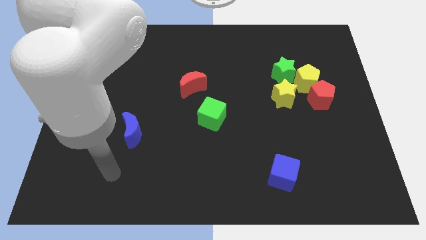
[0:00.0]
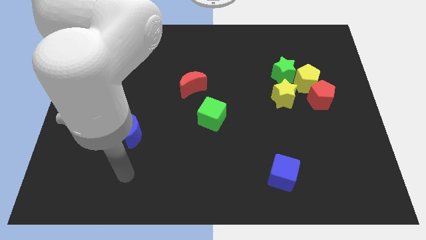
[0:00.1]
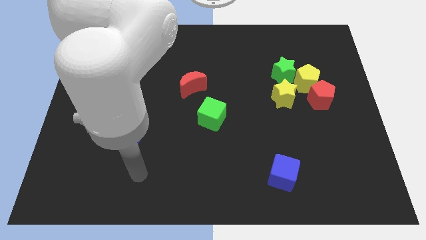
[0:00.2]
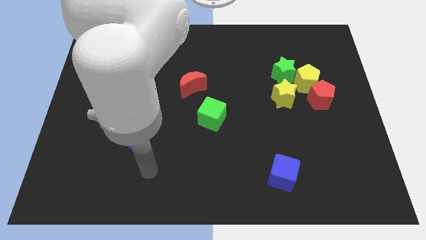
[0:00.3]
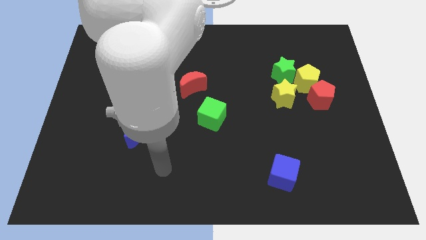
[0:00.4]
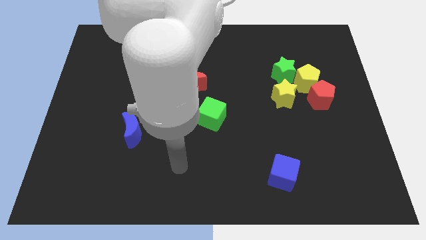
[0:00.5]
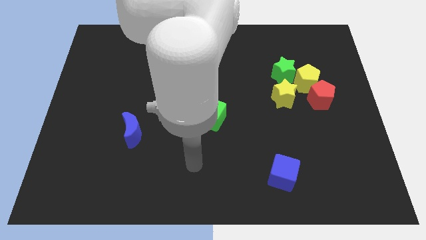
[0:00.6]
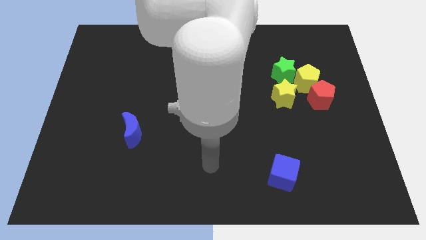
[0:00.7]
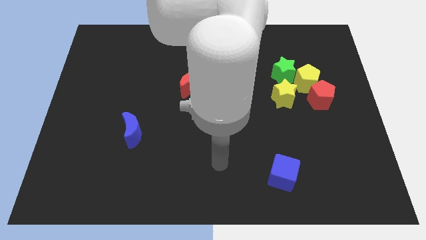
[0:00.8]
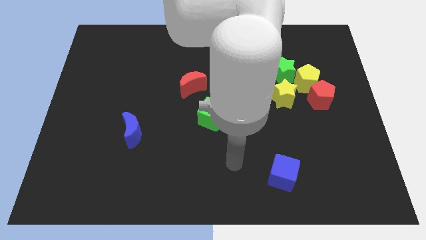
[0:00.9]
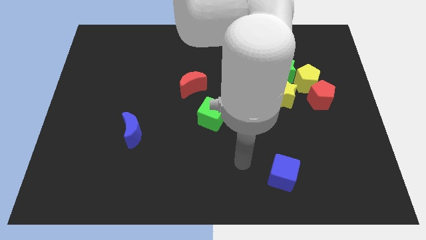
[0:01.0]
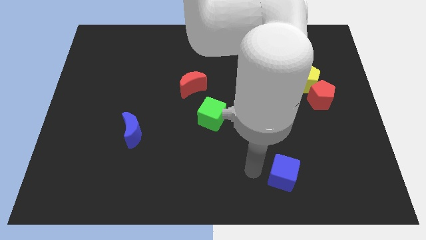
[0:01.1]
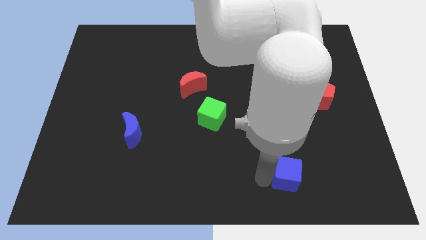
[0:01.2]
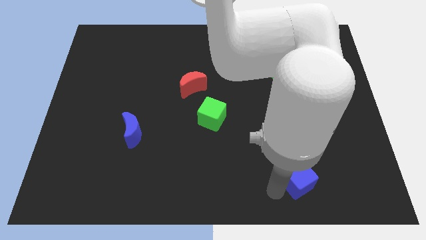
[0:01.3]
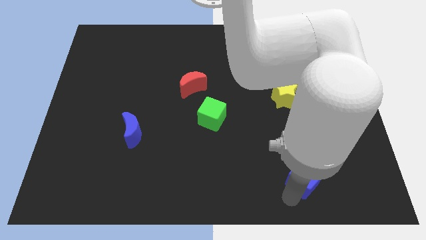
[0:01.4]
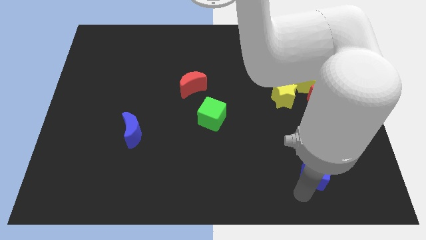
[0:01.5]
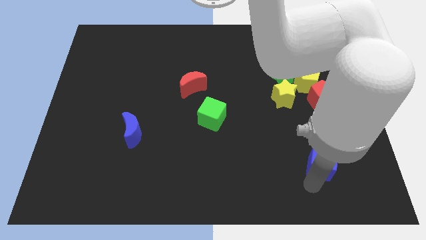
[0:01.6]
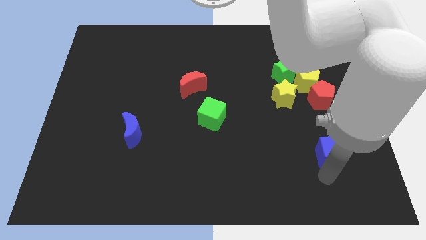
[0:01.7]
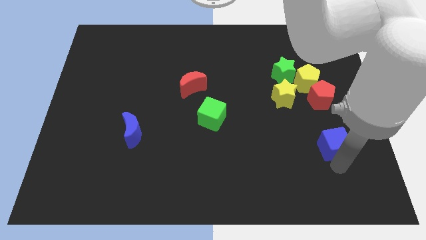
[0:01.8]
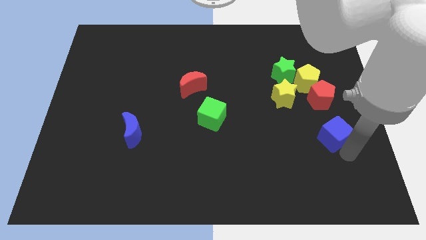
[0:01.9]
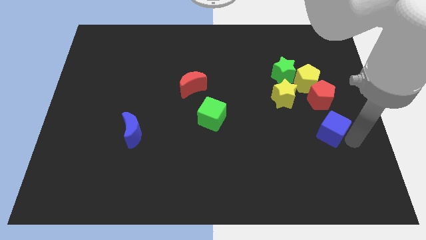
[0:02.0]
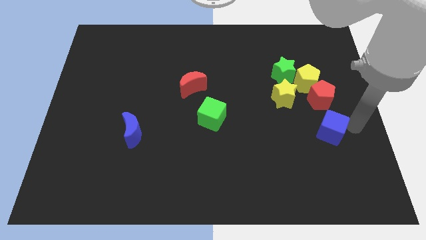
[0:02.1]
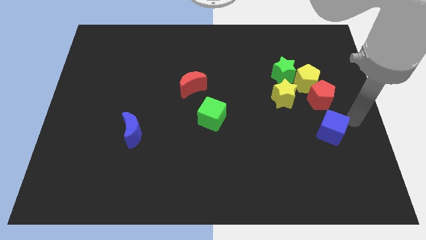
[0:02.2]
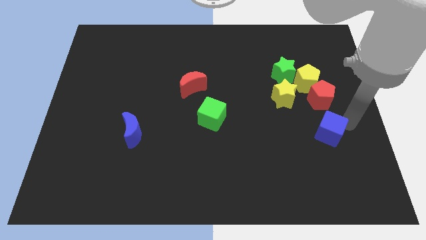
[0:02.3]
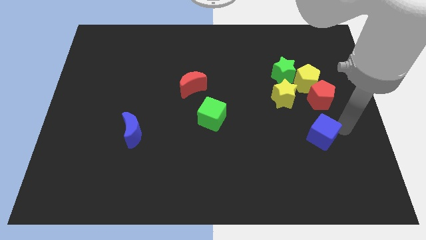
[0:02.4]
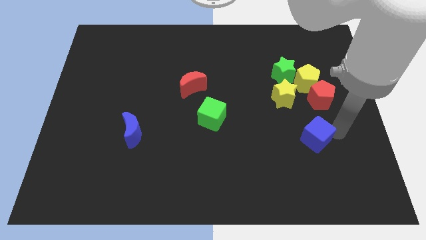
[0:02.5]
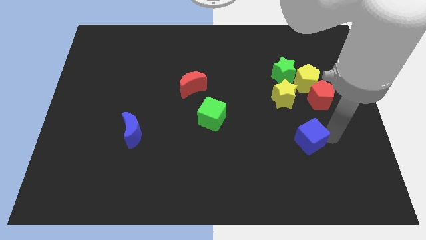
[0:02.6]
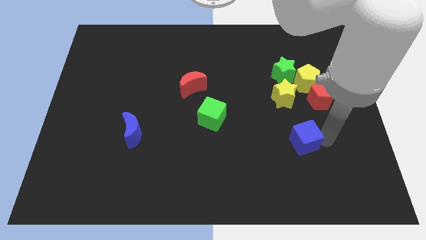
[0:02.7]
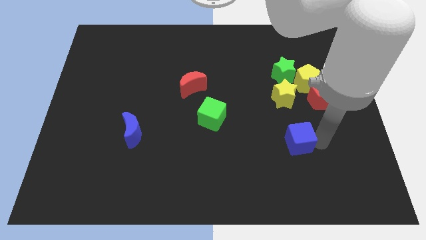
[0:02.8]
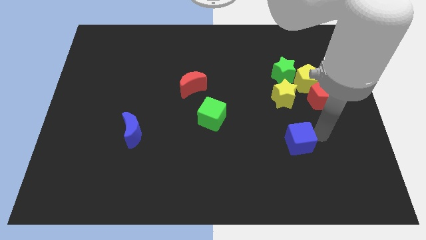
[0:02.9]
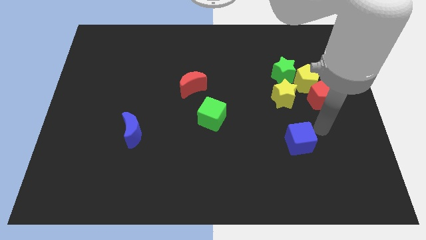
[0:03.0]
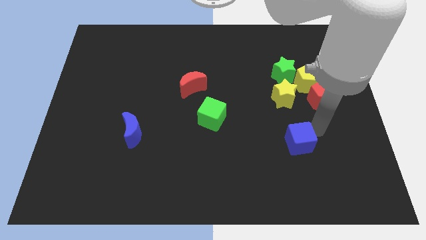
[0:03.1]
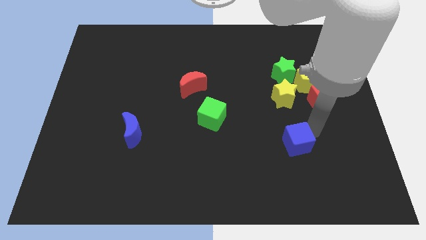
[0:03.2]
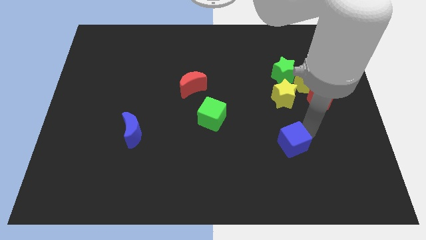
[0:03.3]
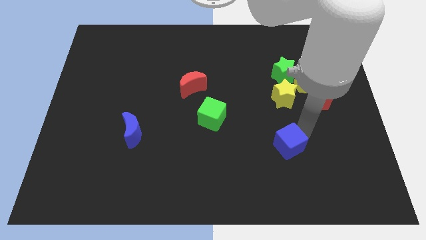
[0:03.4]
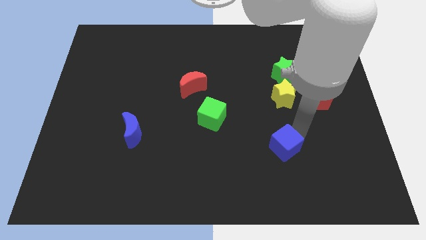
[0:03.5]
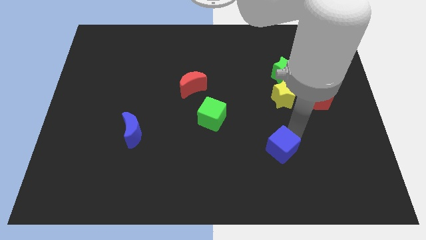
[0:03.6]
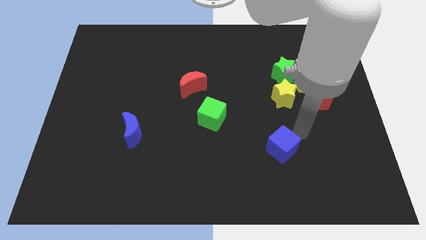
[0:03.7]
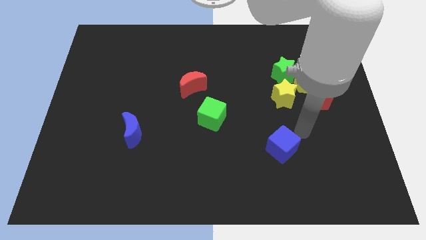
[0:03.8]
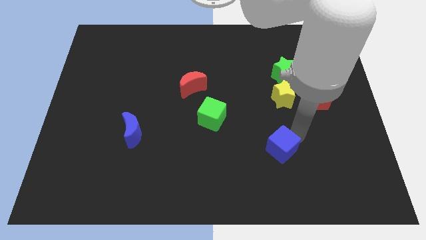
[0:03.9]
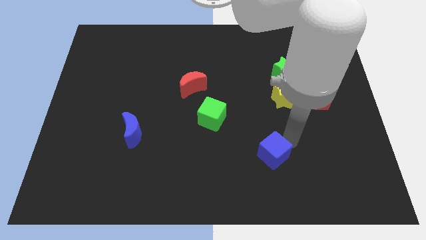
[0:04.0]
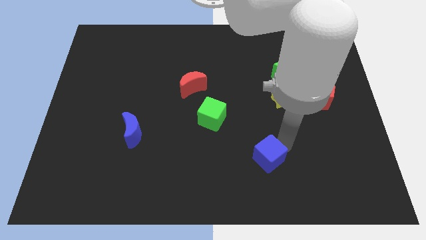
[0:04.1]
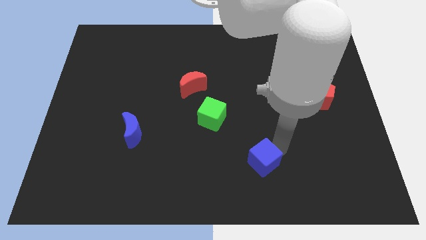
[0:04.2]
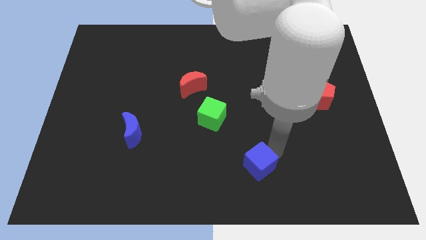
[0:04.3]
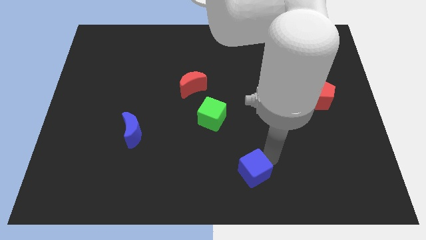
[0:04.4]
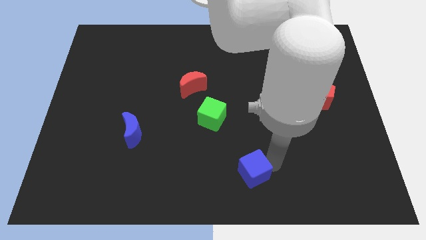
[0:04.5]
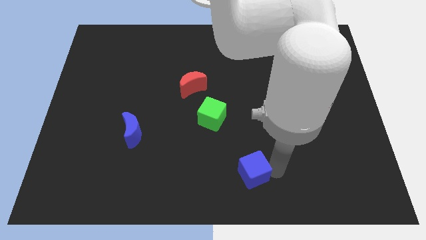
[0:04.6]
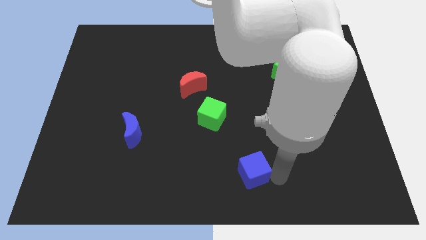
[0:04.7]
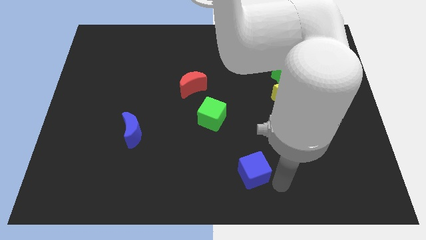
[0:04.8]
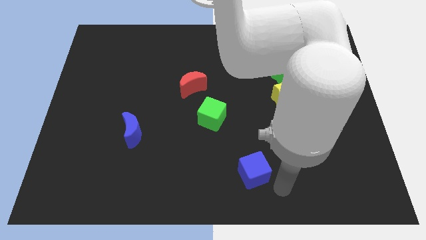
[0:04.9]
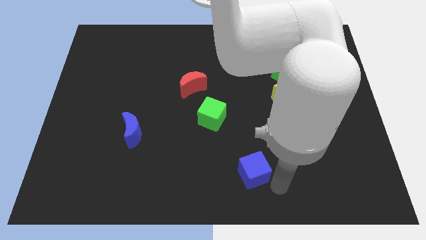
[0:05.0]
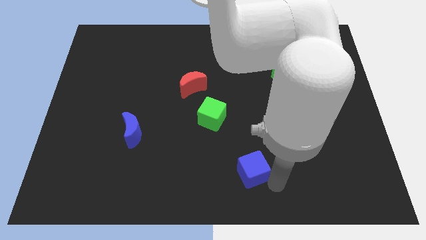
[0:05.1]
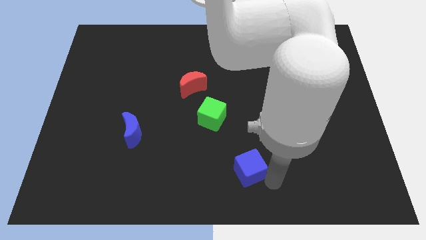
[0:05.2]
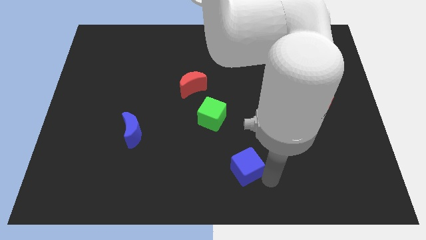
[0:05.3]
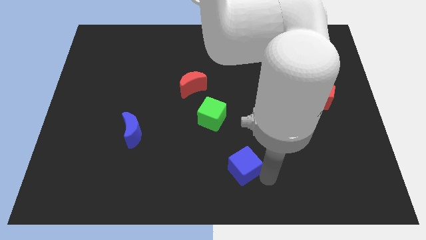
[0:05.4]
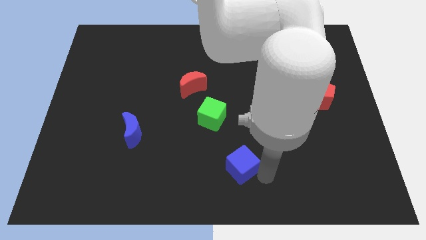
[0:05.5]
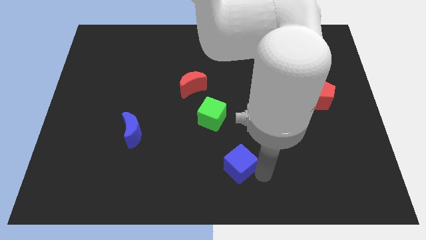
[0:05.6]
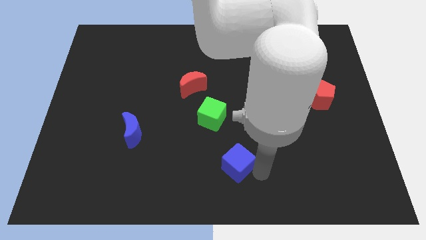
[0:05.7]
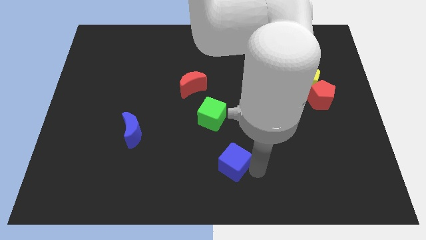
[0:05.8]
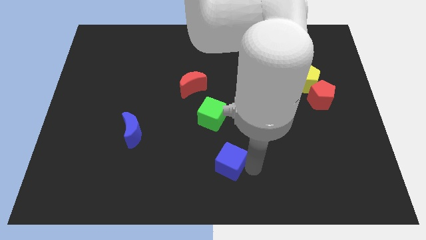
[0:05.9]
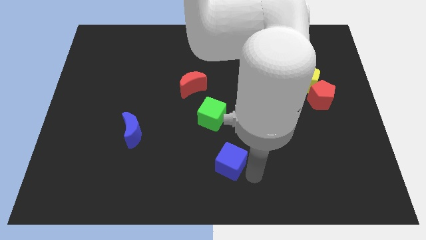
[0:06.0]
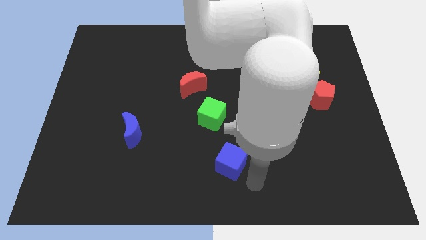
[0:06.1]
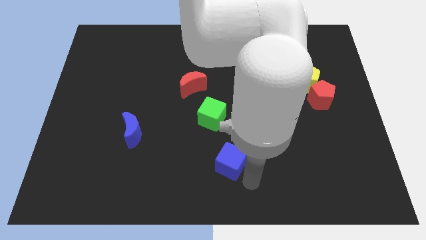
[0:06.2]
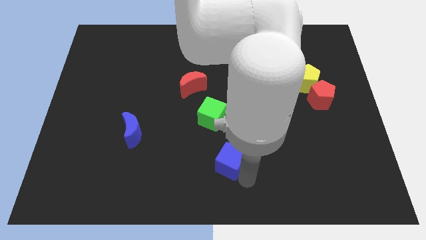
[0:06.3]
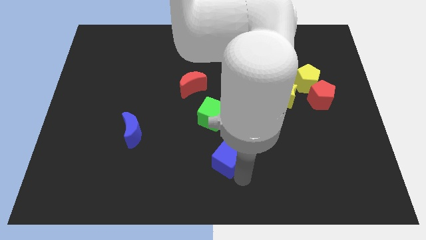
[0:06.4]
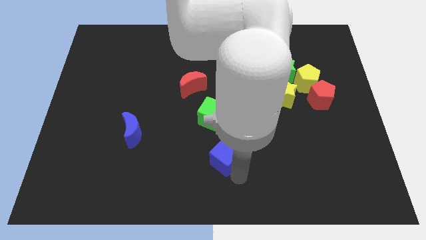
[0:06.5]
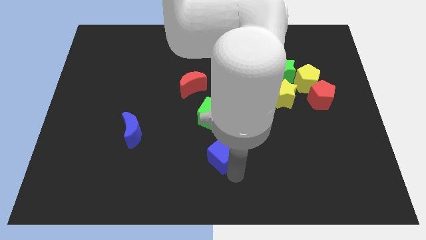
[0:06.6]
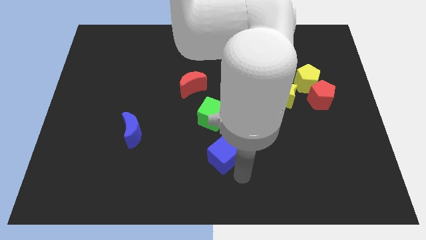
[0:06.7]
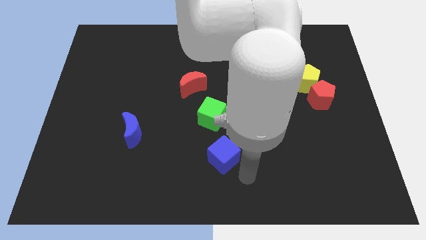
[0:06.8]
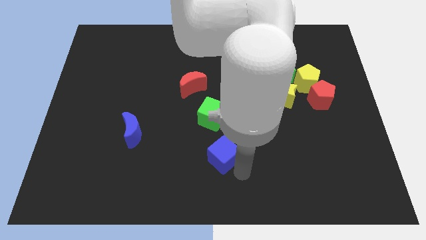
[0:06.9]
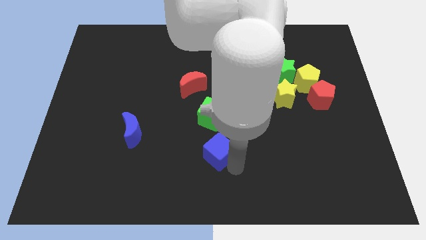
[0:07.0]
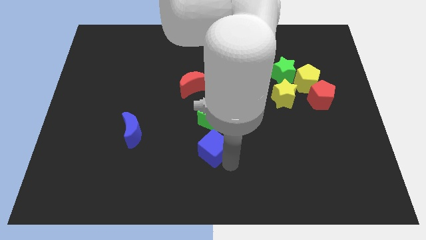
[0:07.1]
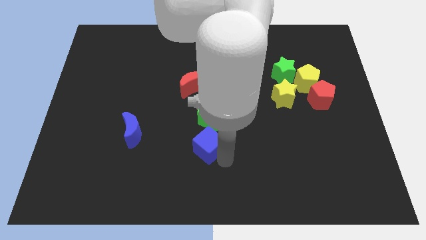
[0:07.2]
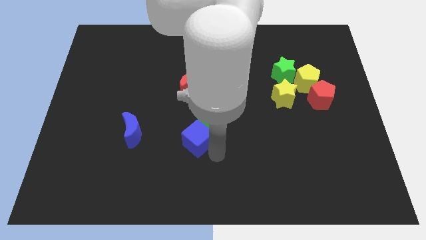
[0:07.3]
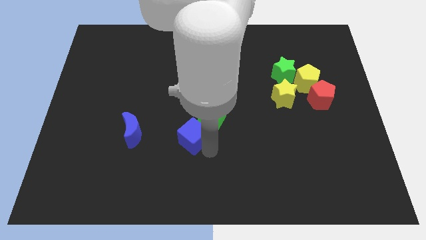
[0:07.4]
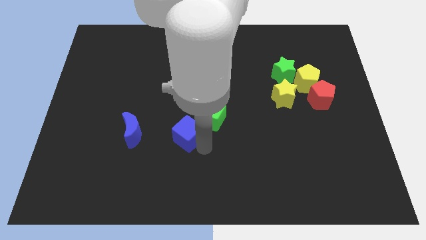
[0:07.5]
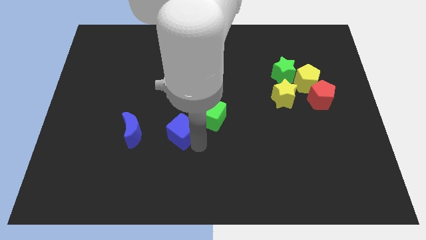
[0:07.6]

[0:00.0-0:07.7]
put the blue cube just left of the green cube
